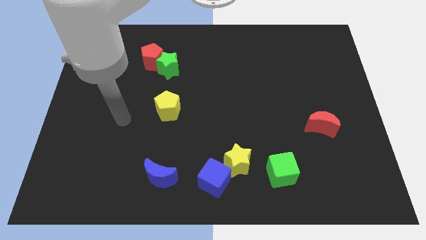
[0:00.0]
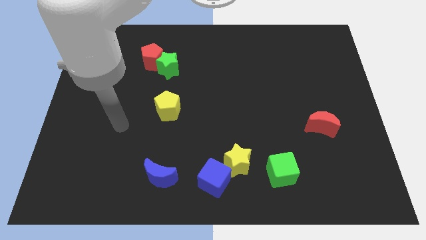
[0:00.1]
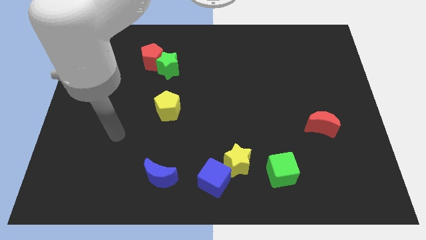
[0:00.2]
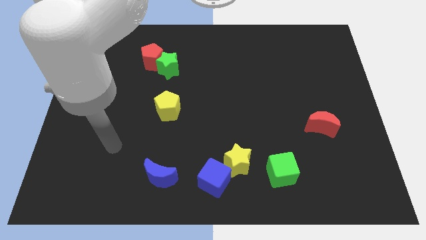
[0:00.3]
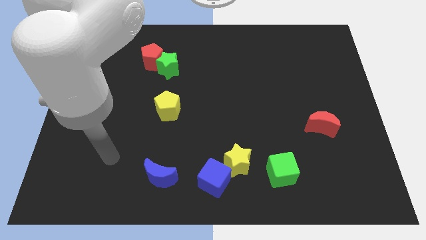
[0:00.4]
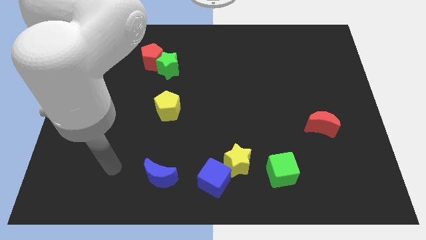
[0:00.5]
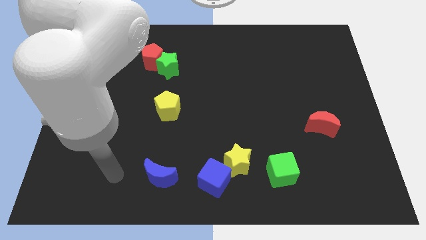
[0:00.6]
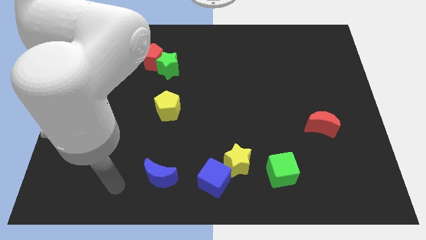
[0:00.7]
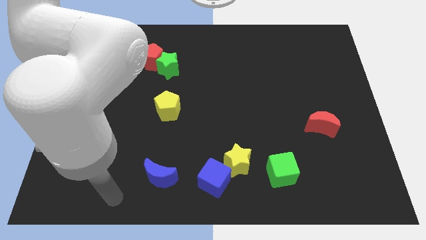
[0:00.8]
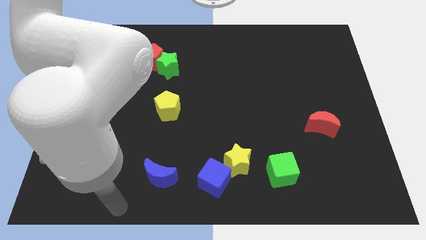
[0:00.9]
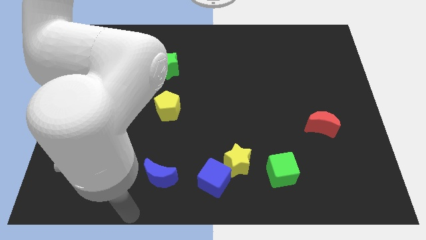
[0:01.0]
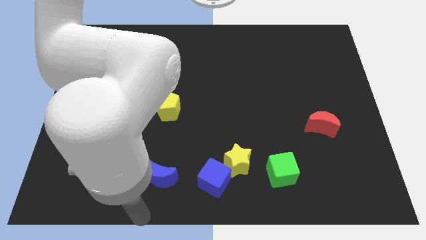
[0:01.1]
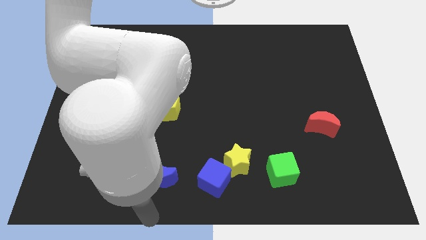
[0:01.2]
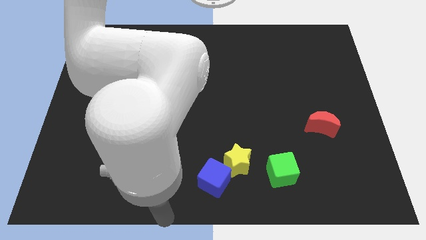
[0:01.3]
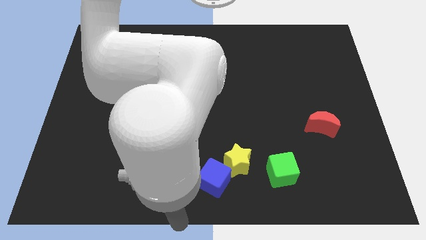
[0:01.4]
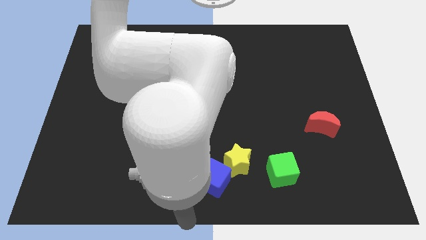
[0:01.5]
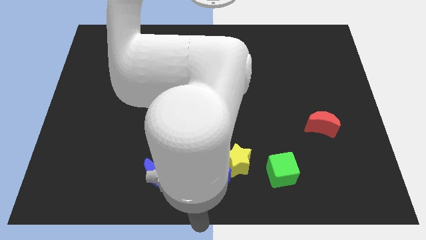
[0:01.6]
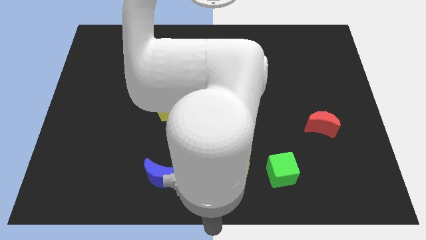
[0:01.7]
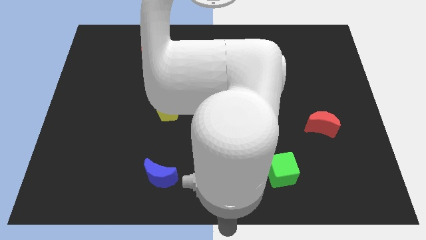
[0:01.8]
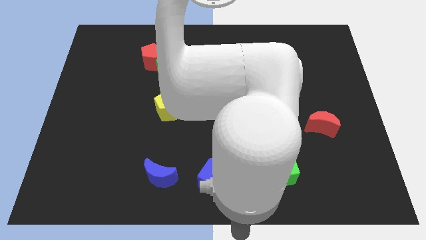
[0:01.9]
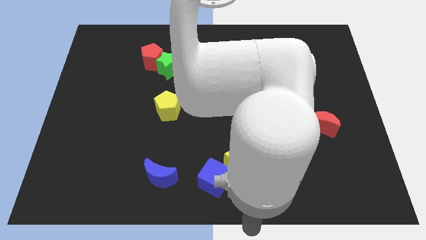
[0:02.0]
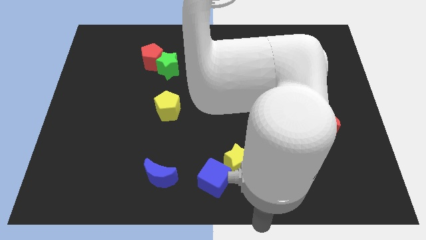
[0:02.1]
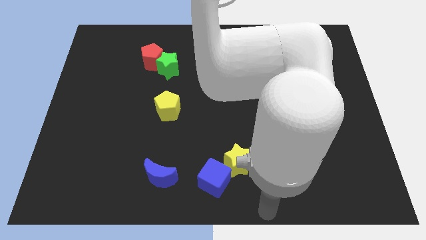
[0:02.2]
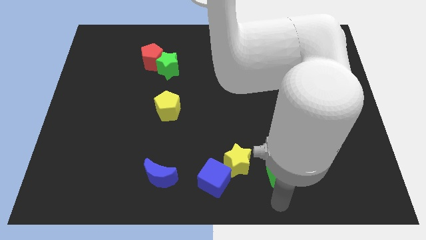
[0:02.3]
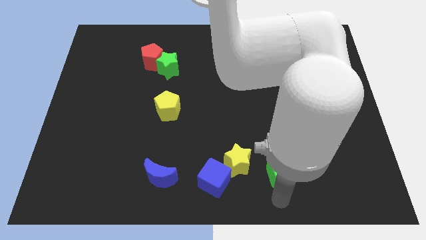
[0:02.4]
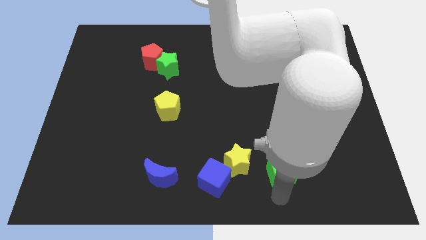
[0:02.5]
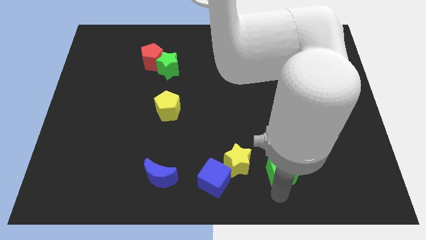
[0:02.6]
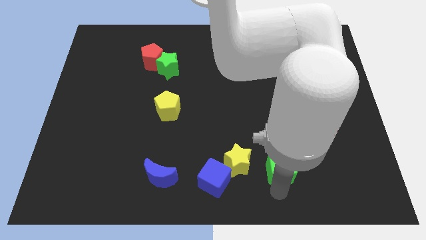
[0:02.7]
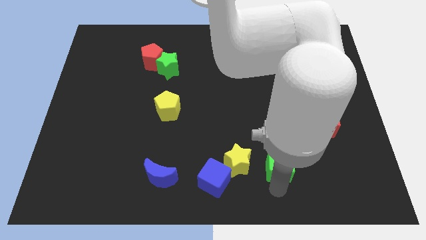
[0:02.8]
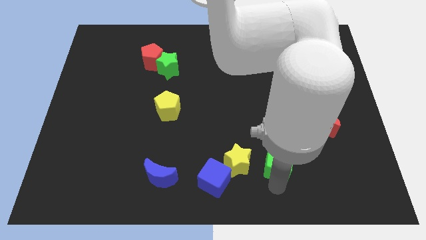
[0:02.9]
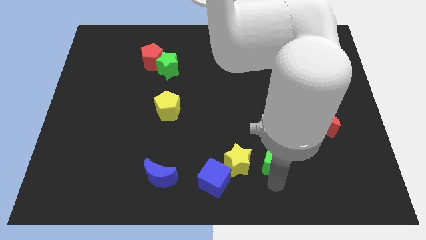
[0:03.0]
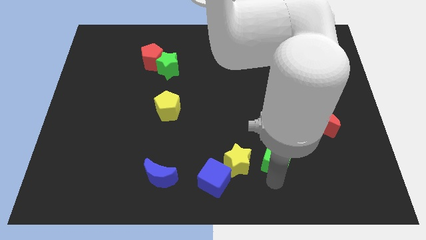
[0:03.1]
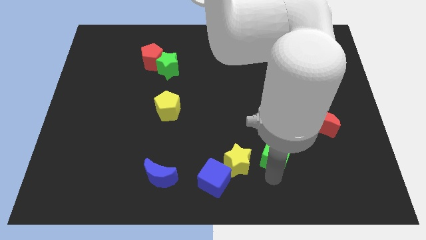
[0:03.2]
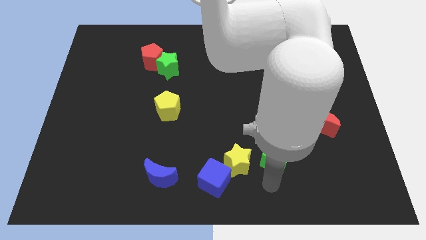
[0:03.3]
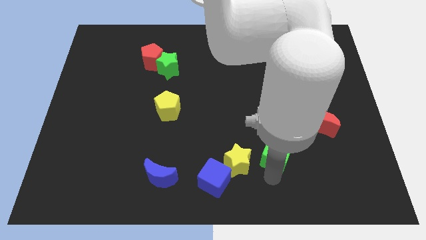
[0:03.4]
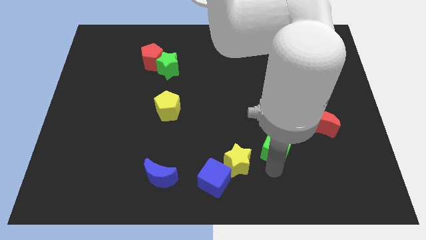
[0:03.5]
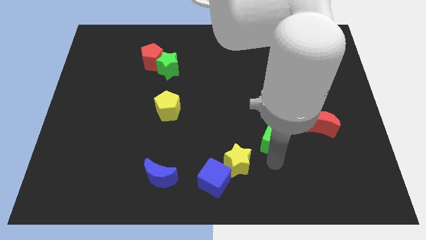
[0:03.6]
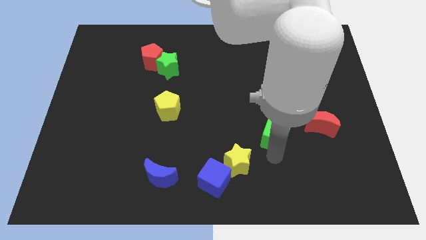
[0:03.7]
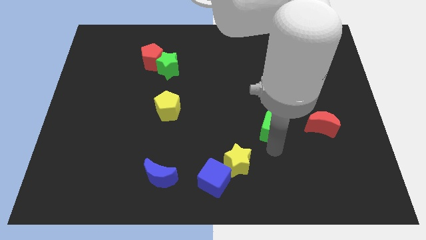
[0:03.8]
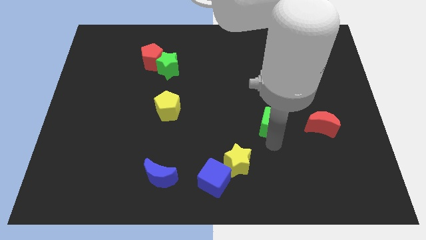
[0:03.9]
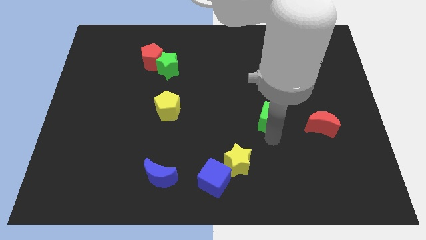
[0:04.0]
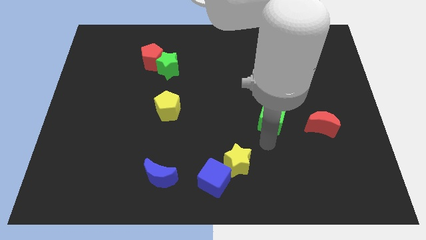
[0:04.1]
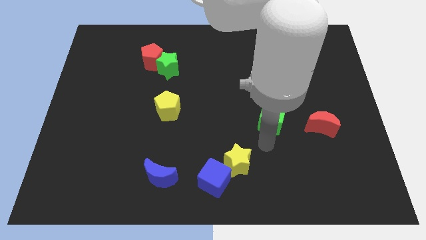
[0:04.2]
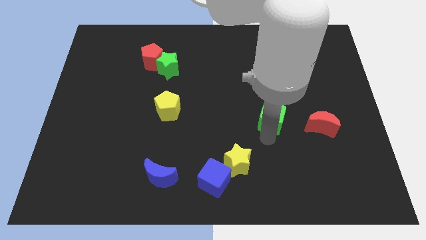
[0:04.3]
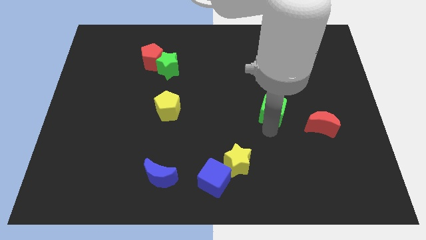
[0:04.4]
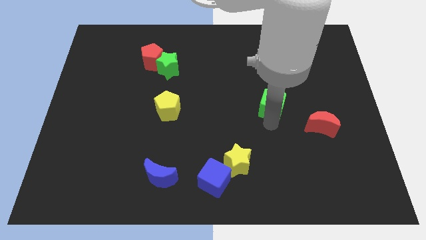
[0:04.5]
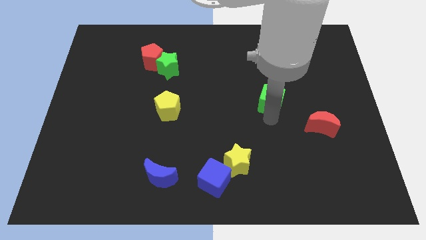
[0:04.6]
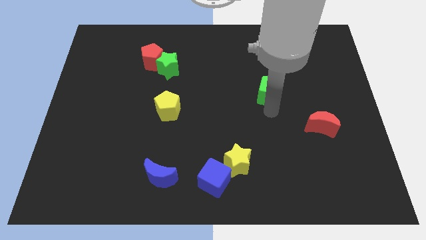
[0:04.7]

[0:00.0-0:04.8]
push the green cube upwards

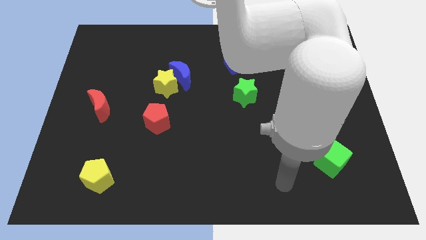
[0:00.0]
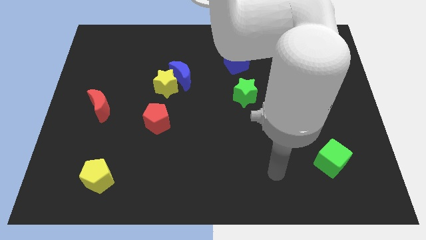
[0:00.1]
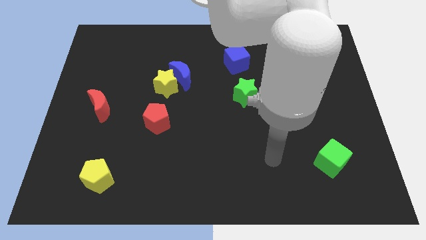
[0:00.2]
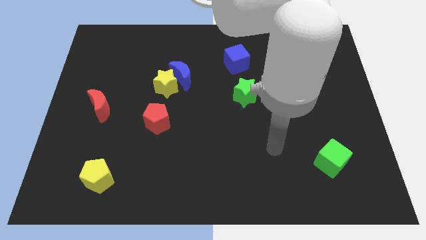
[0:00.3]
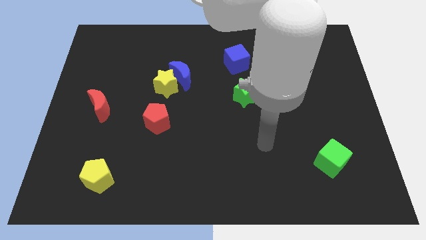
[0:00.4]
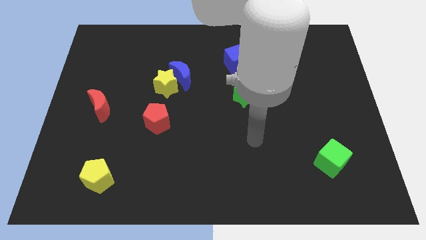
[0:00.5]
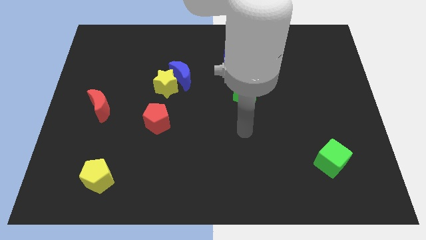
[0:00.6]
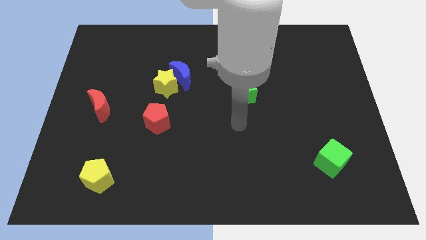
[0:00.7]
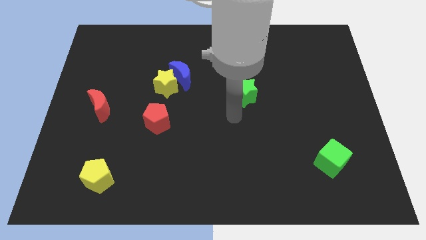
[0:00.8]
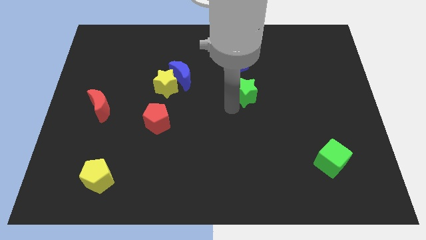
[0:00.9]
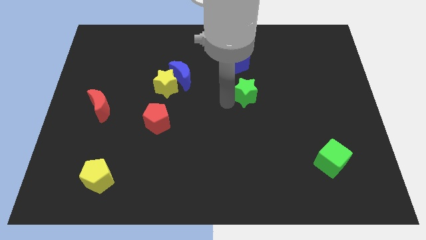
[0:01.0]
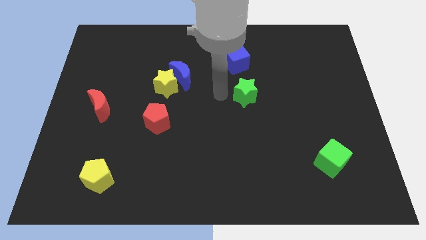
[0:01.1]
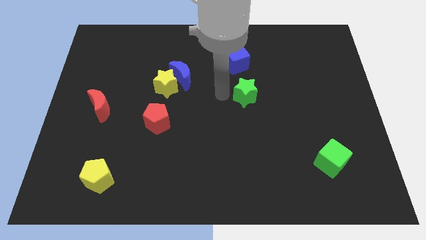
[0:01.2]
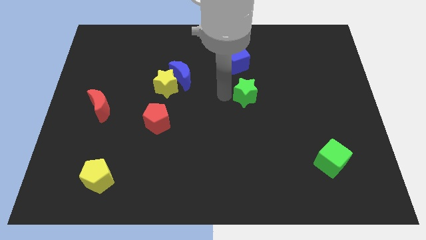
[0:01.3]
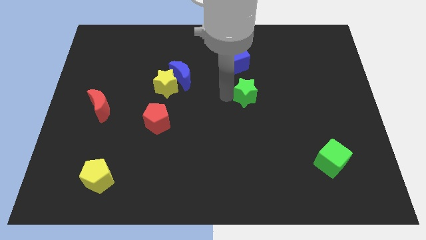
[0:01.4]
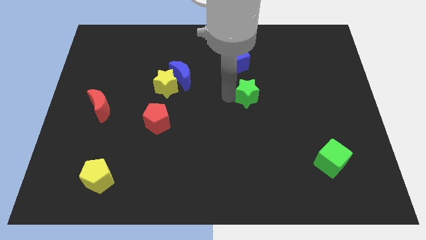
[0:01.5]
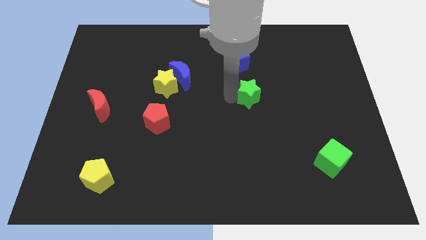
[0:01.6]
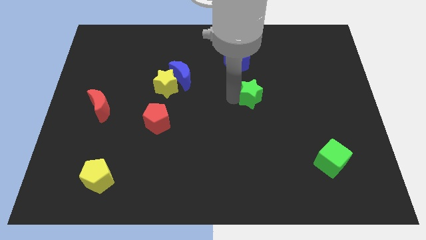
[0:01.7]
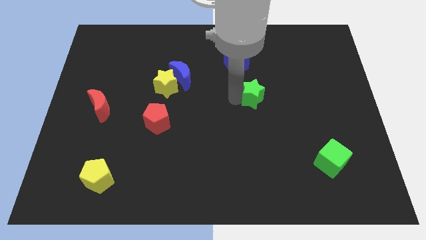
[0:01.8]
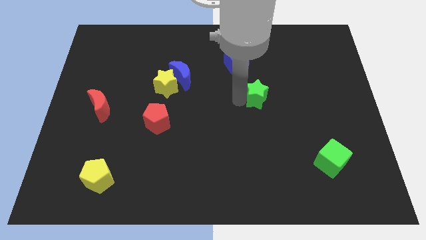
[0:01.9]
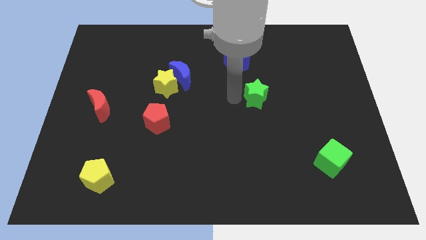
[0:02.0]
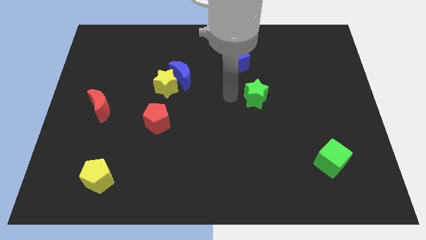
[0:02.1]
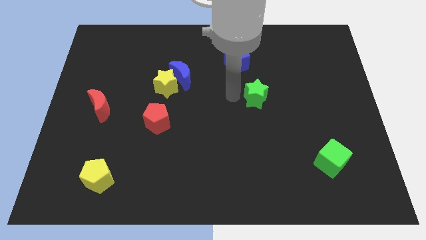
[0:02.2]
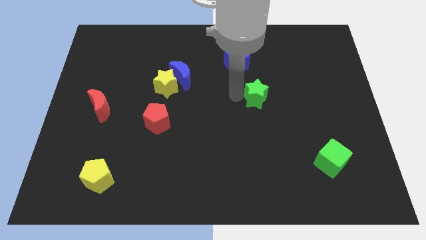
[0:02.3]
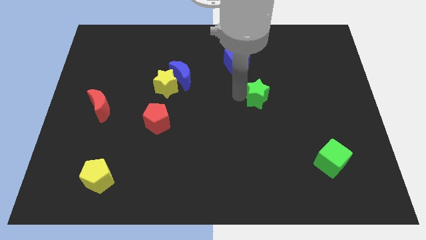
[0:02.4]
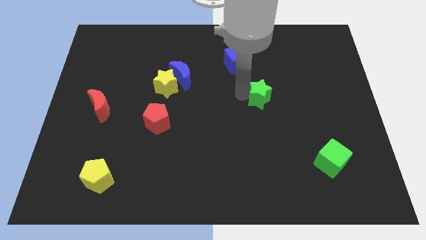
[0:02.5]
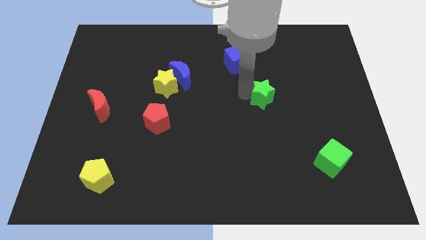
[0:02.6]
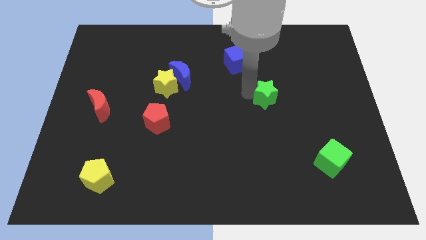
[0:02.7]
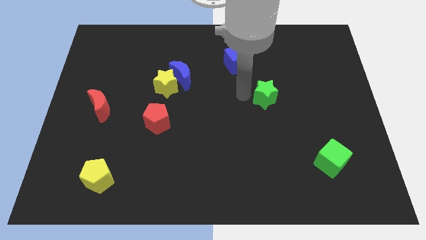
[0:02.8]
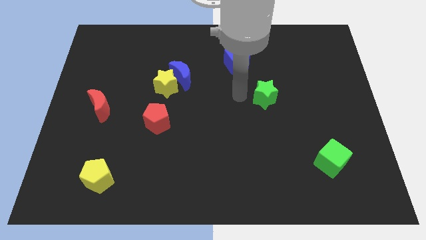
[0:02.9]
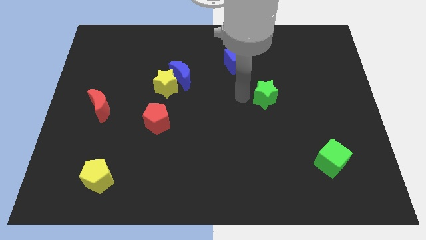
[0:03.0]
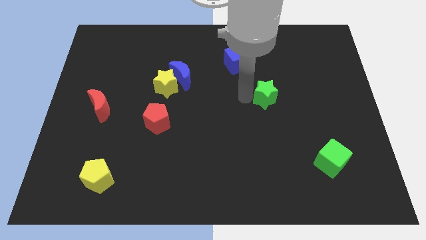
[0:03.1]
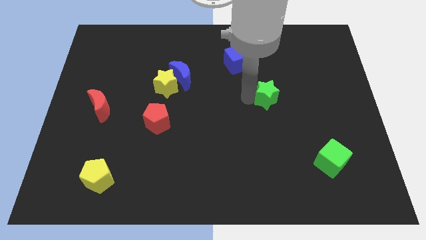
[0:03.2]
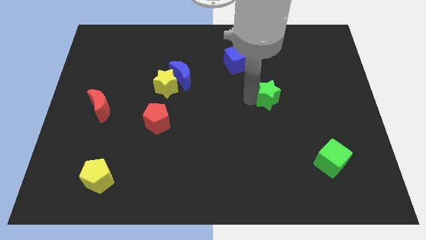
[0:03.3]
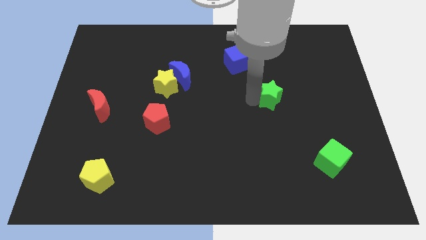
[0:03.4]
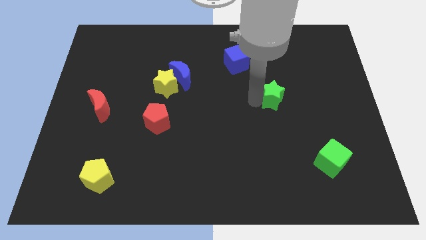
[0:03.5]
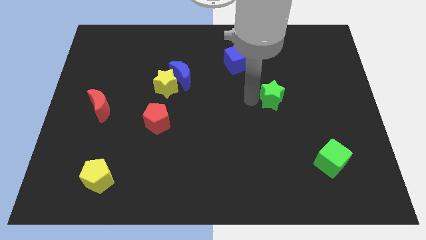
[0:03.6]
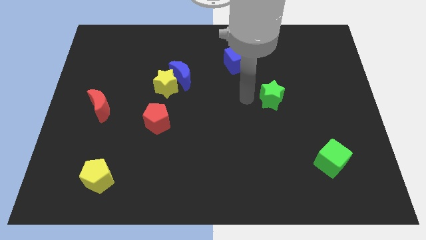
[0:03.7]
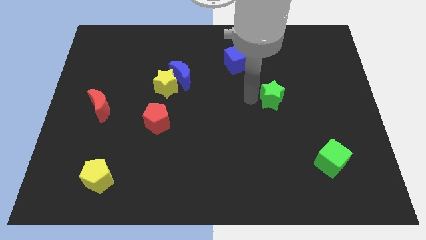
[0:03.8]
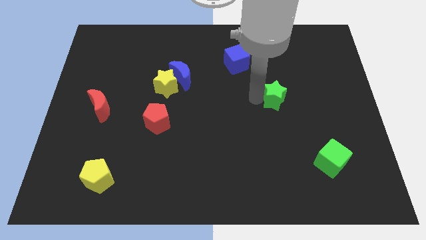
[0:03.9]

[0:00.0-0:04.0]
slide the green star slightly right
